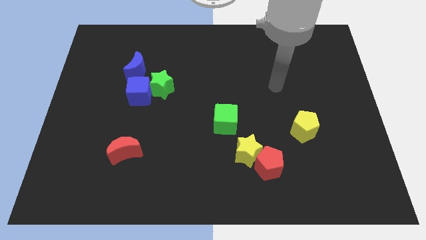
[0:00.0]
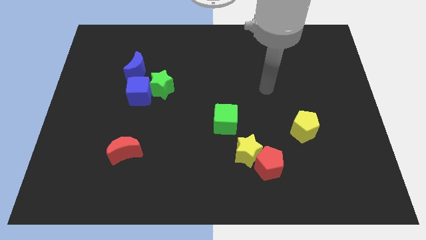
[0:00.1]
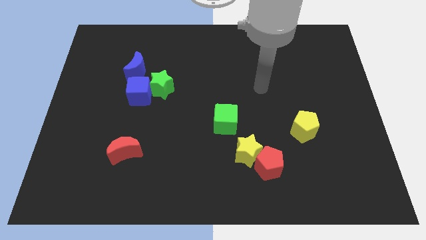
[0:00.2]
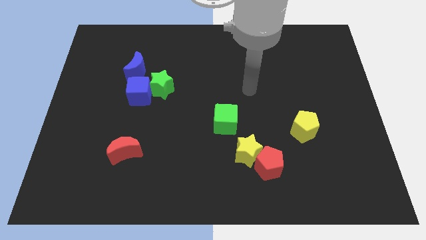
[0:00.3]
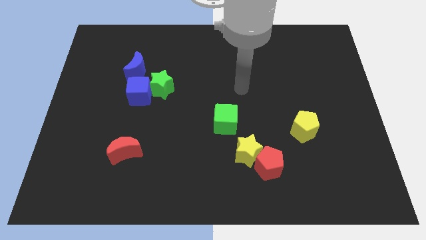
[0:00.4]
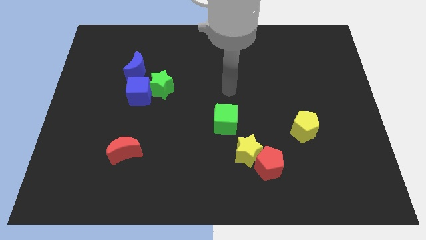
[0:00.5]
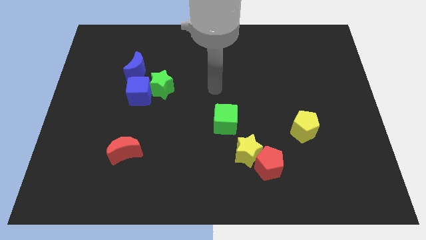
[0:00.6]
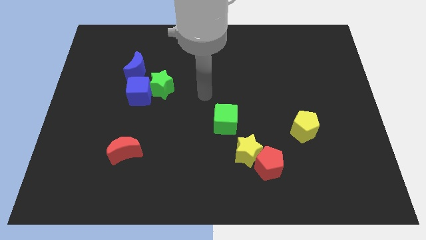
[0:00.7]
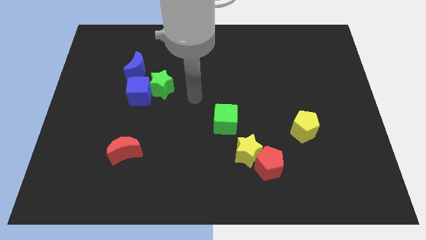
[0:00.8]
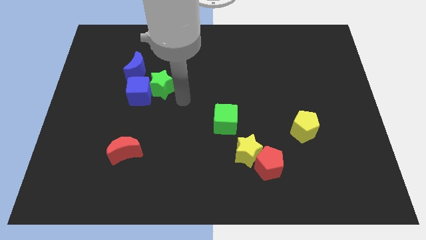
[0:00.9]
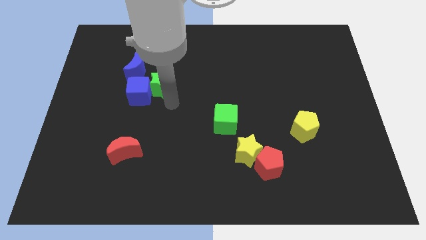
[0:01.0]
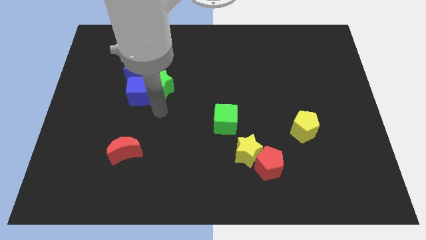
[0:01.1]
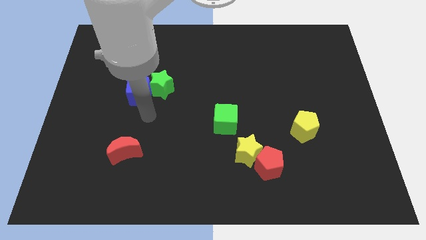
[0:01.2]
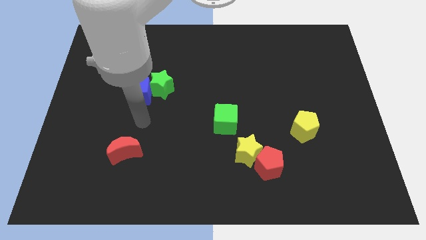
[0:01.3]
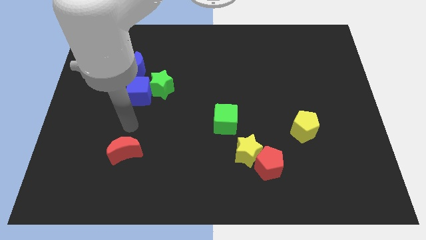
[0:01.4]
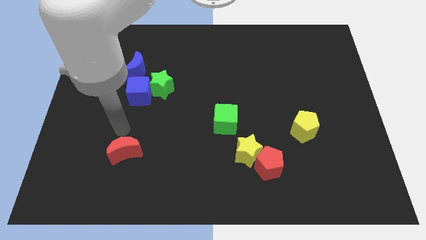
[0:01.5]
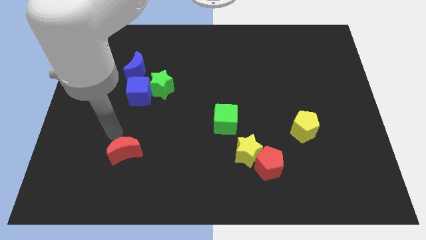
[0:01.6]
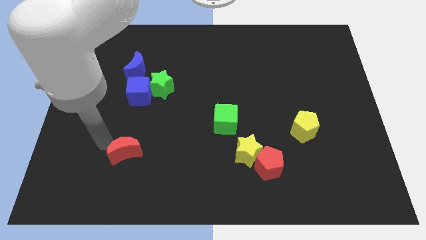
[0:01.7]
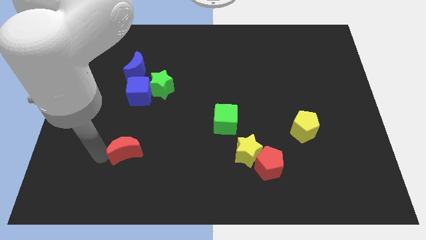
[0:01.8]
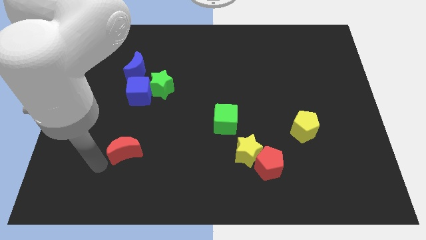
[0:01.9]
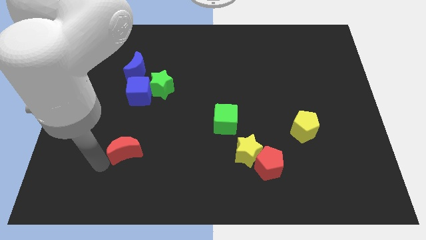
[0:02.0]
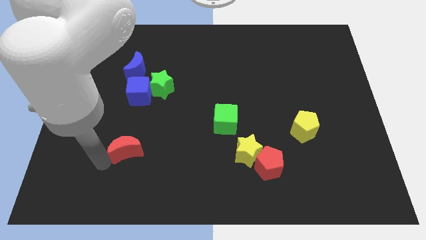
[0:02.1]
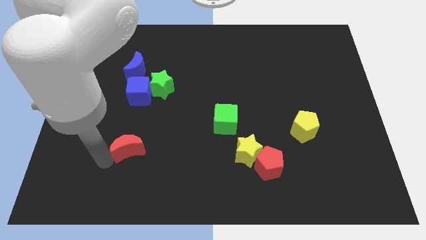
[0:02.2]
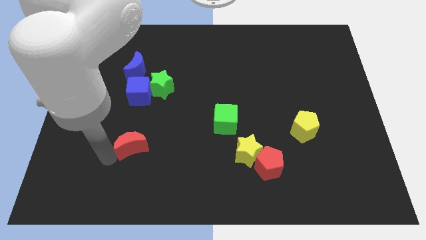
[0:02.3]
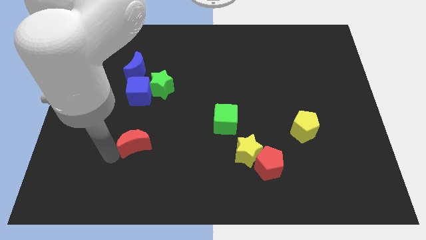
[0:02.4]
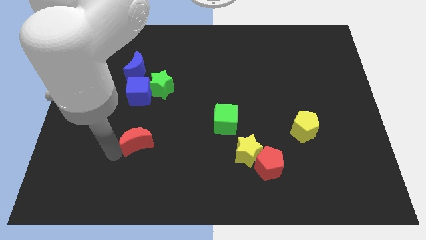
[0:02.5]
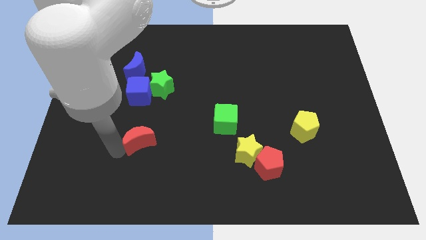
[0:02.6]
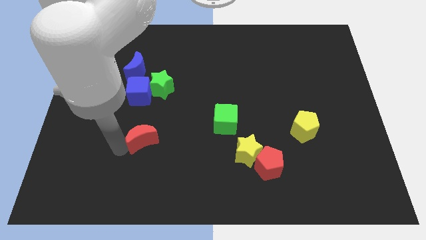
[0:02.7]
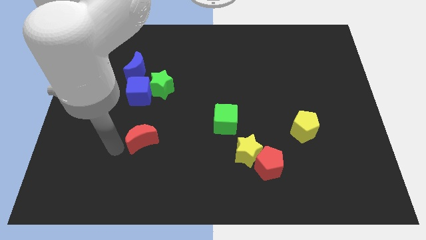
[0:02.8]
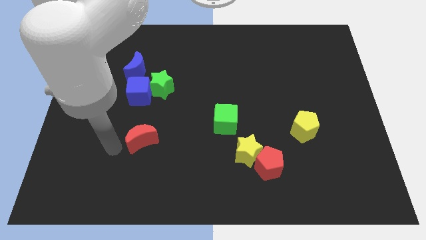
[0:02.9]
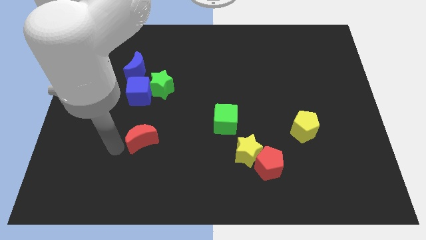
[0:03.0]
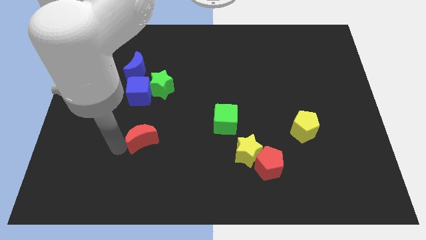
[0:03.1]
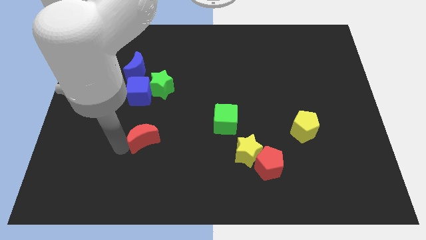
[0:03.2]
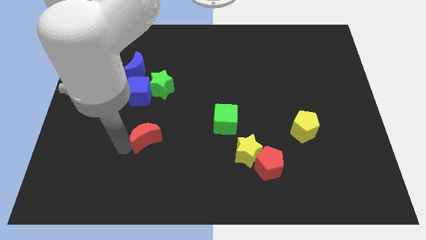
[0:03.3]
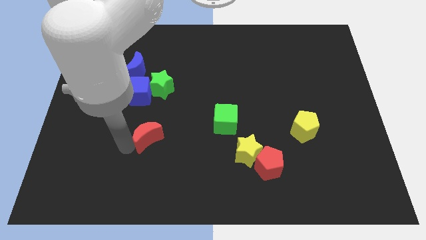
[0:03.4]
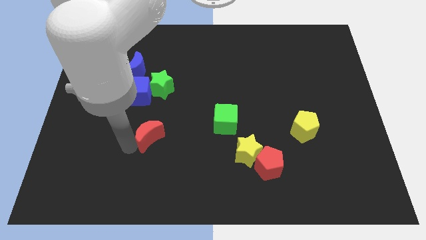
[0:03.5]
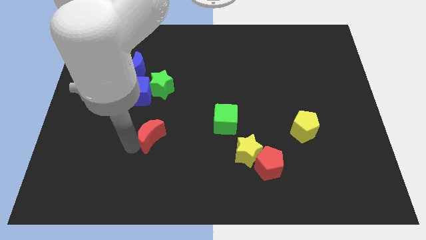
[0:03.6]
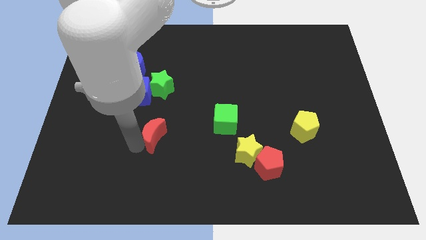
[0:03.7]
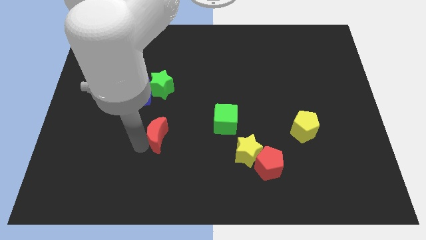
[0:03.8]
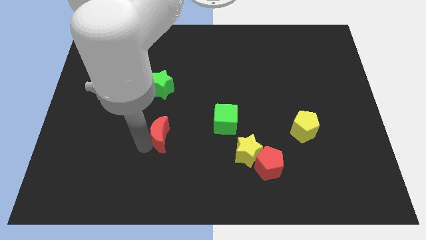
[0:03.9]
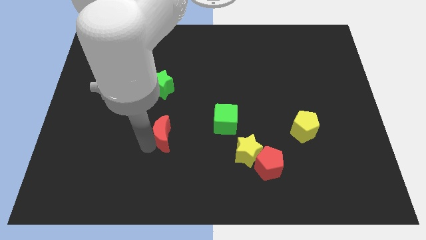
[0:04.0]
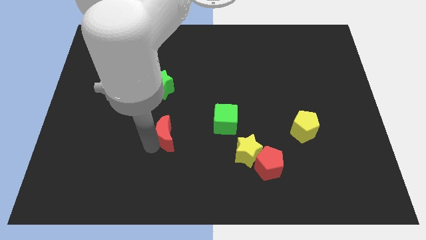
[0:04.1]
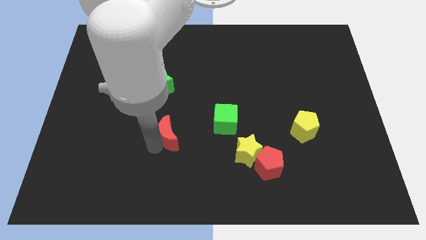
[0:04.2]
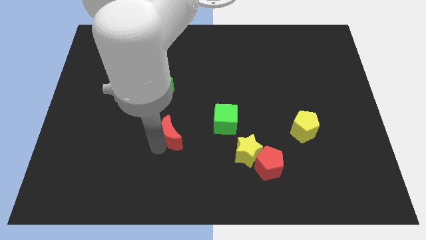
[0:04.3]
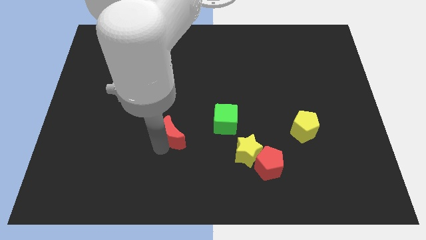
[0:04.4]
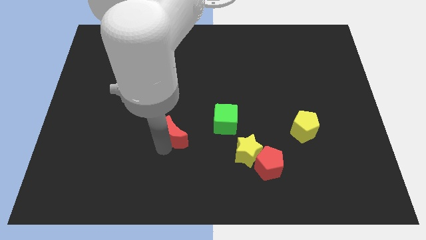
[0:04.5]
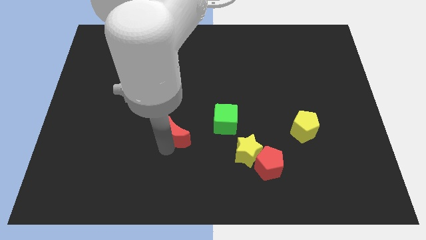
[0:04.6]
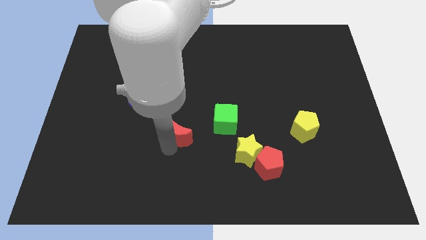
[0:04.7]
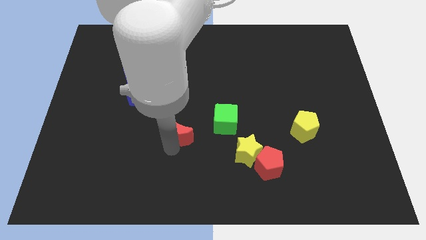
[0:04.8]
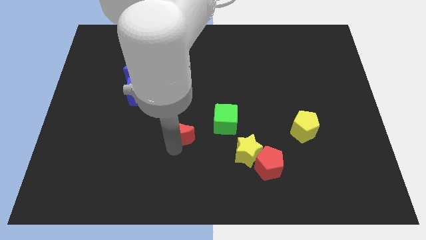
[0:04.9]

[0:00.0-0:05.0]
put the red moon to the middle of the board

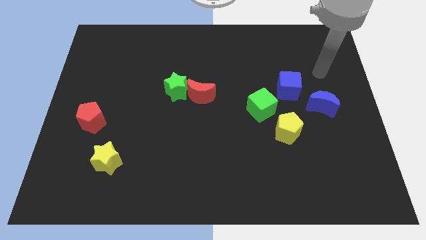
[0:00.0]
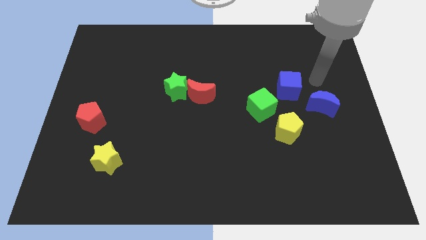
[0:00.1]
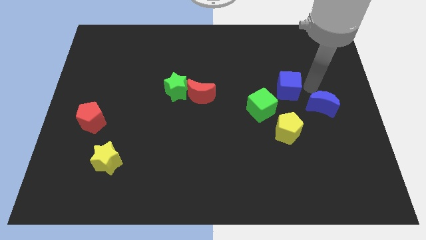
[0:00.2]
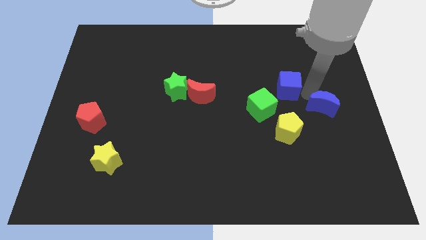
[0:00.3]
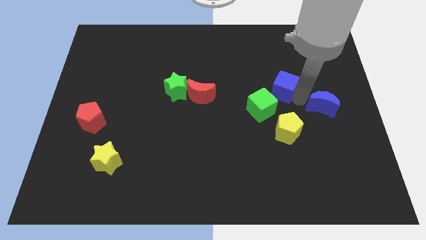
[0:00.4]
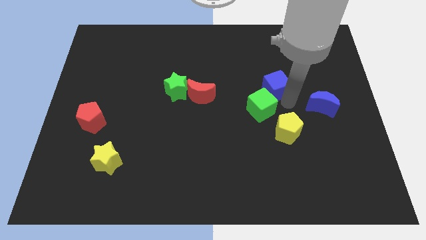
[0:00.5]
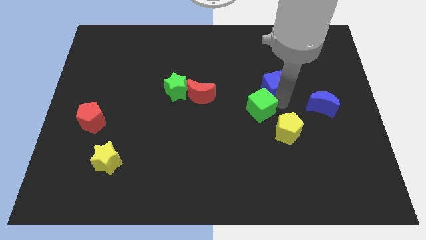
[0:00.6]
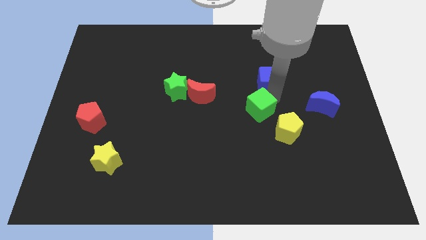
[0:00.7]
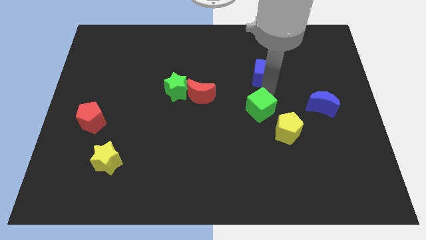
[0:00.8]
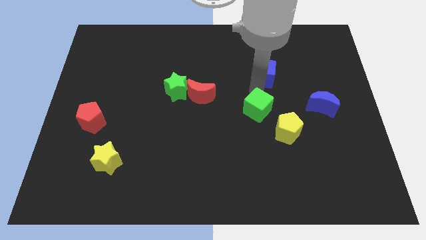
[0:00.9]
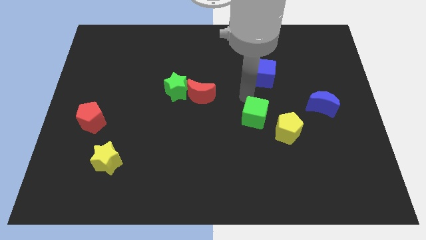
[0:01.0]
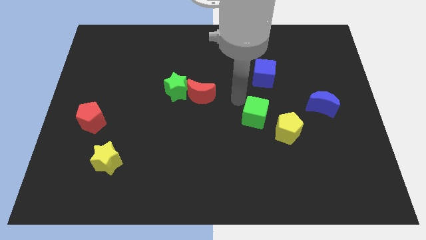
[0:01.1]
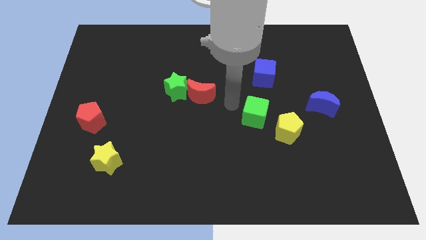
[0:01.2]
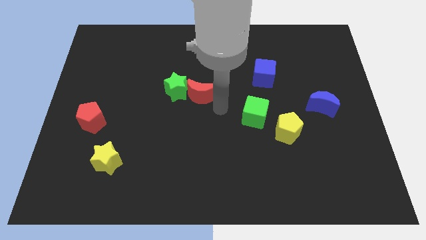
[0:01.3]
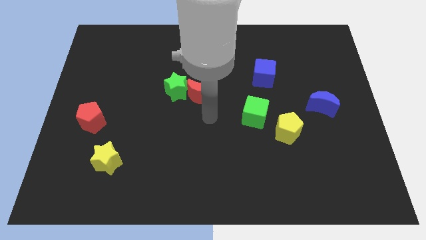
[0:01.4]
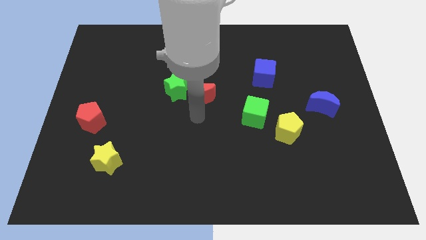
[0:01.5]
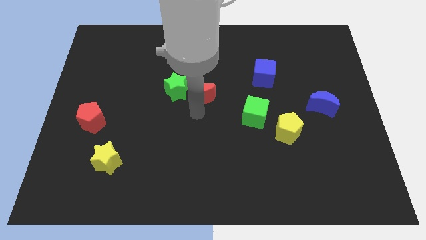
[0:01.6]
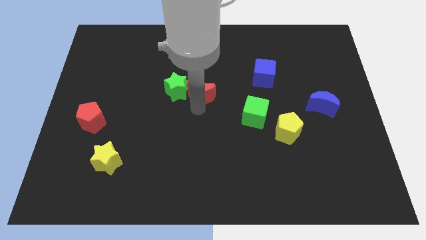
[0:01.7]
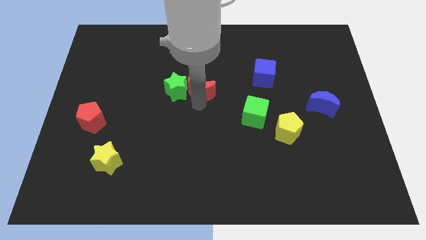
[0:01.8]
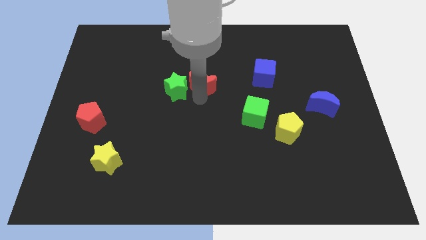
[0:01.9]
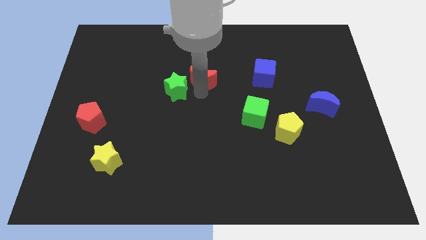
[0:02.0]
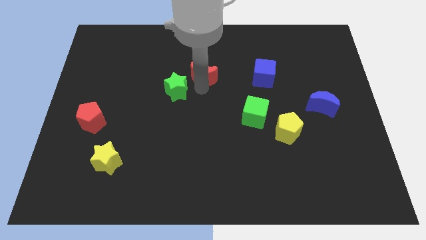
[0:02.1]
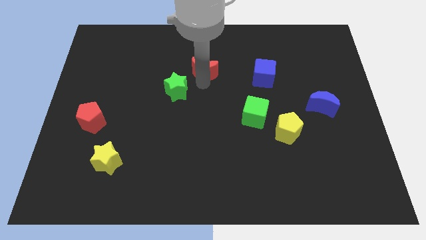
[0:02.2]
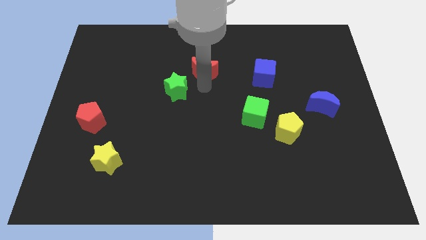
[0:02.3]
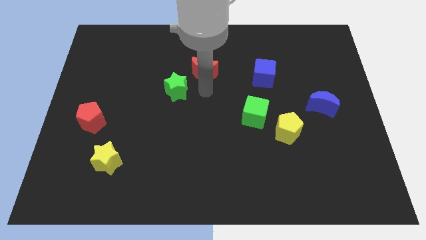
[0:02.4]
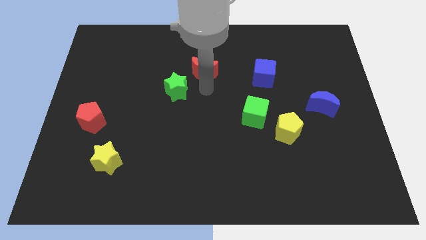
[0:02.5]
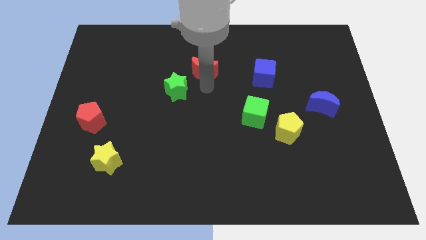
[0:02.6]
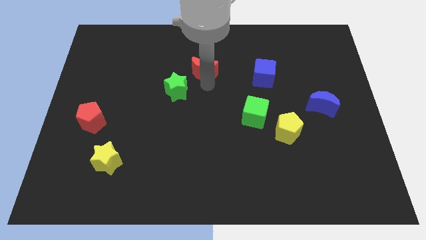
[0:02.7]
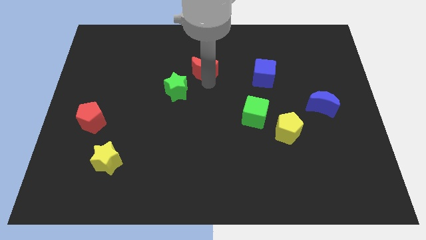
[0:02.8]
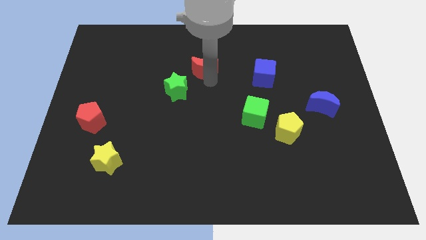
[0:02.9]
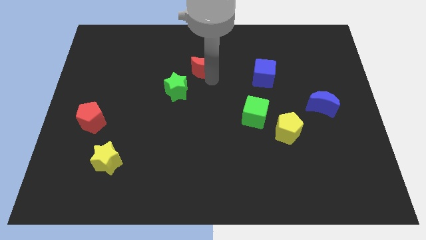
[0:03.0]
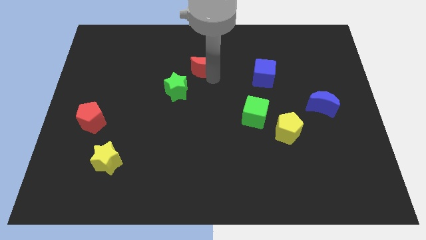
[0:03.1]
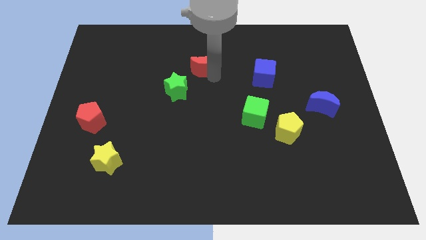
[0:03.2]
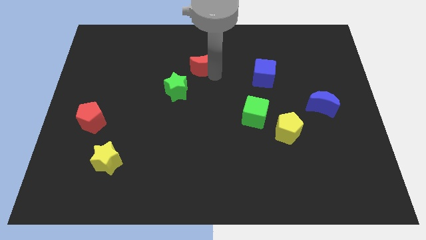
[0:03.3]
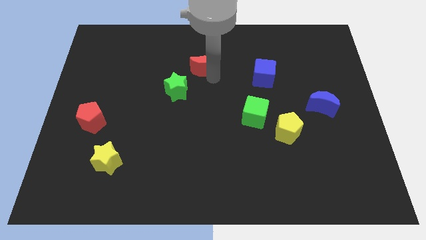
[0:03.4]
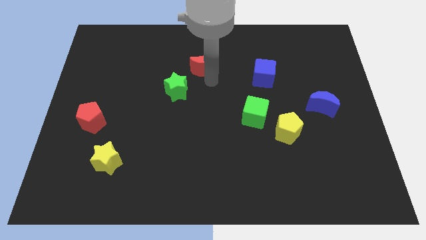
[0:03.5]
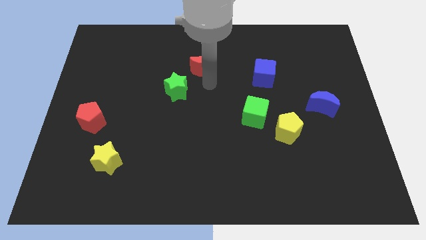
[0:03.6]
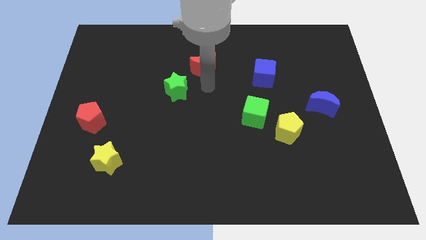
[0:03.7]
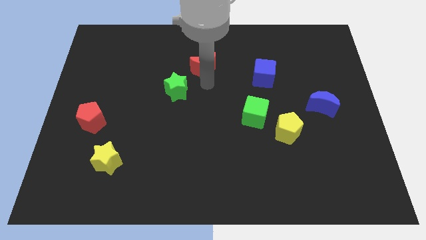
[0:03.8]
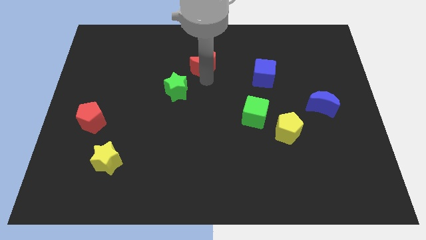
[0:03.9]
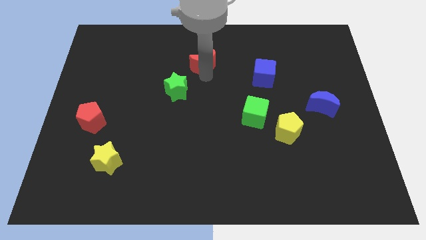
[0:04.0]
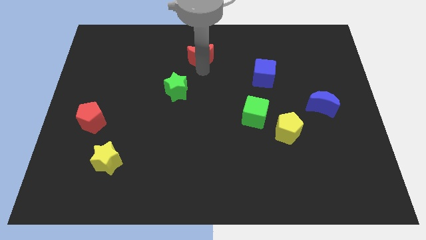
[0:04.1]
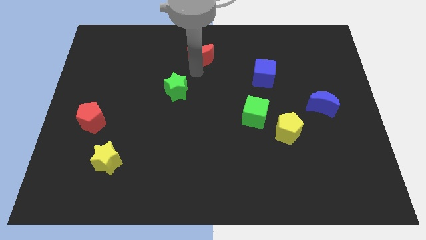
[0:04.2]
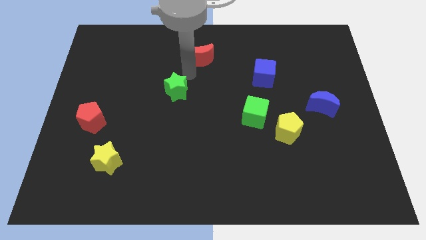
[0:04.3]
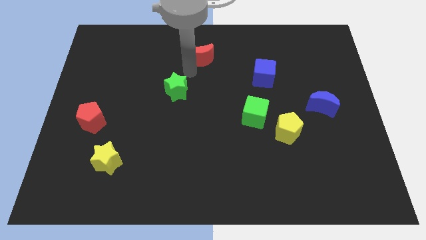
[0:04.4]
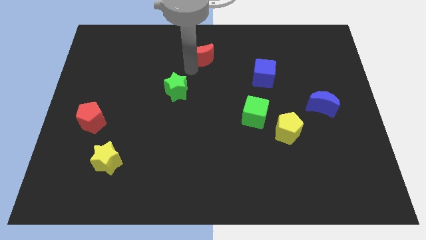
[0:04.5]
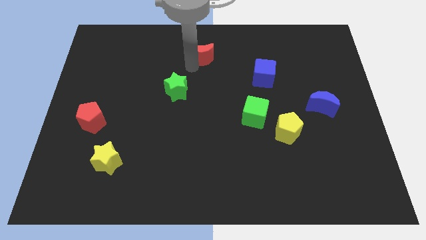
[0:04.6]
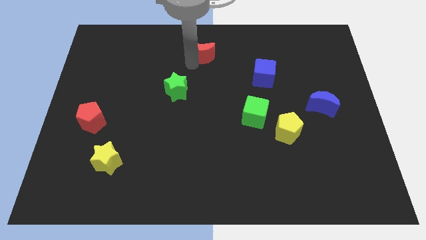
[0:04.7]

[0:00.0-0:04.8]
push the red moon to the top side
